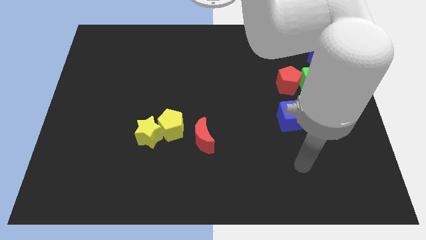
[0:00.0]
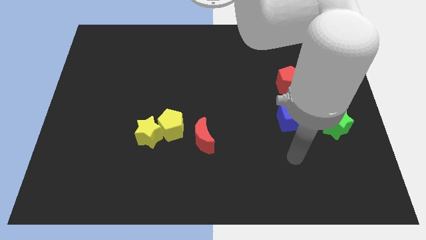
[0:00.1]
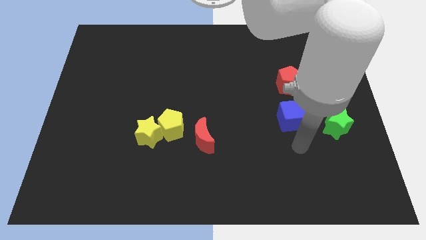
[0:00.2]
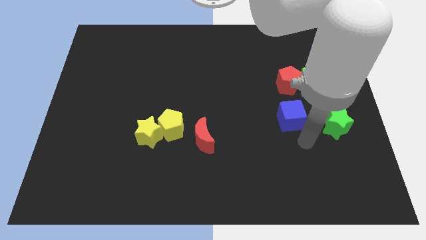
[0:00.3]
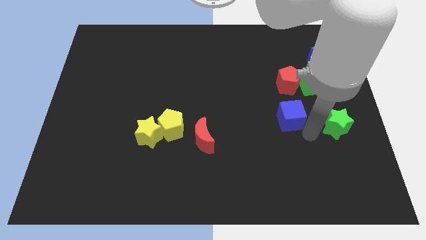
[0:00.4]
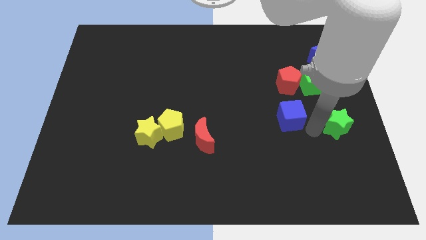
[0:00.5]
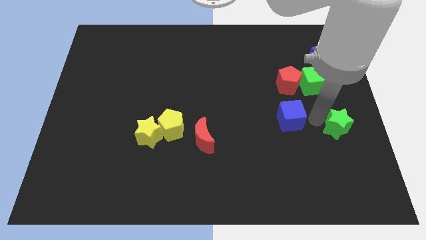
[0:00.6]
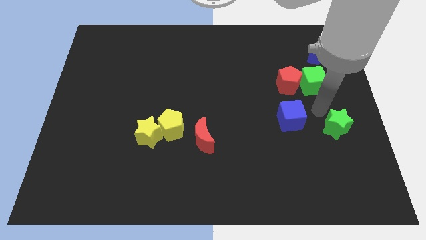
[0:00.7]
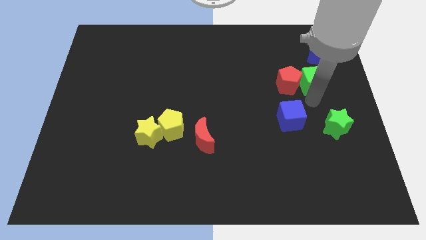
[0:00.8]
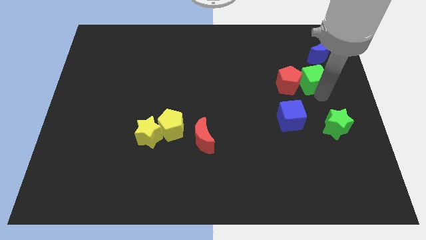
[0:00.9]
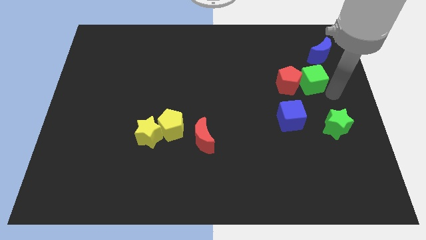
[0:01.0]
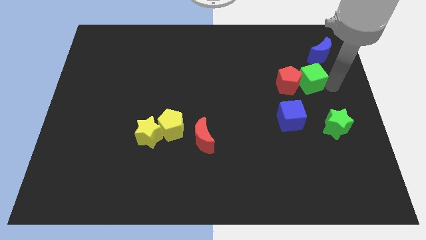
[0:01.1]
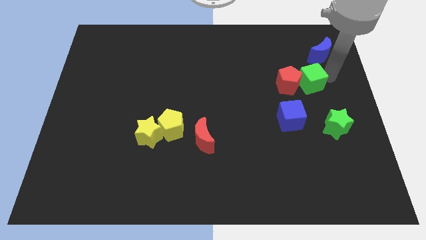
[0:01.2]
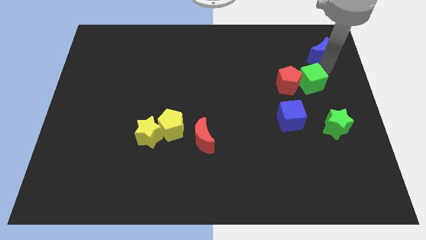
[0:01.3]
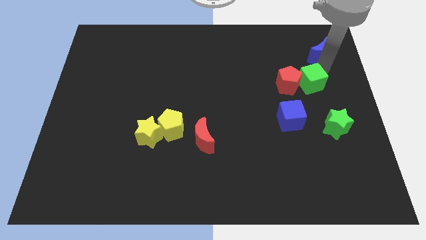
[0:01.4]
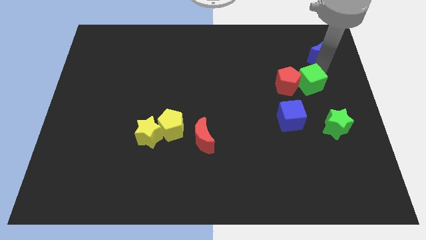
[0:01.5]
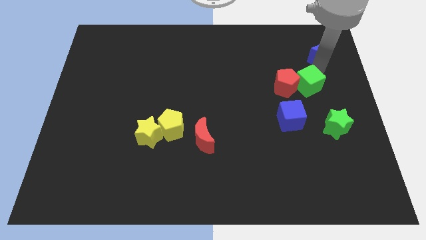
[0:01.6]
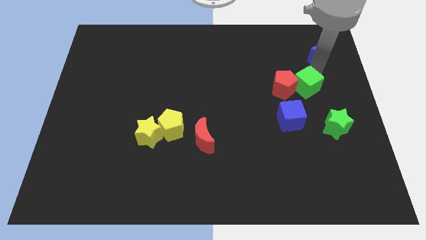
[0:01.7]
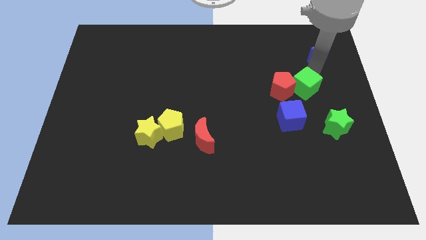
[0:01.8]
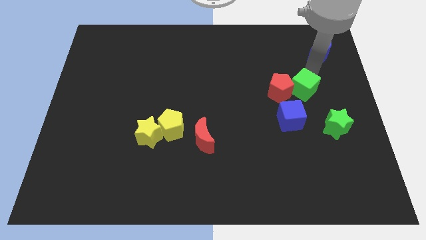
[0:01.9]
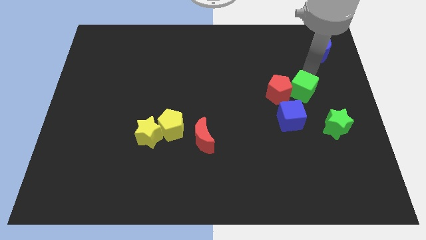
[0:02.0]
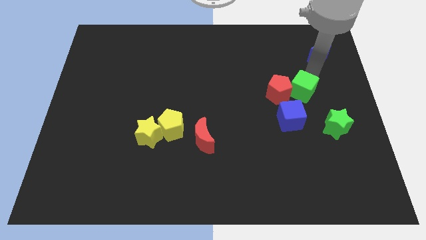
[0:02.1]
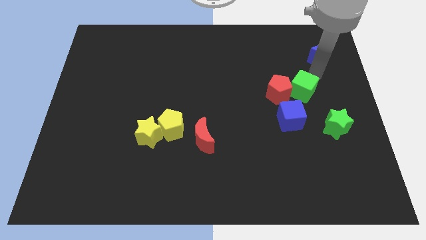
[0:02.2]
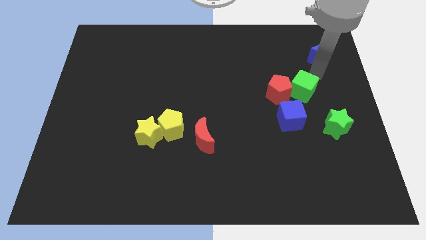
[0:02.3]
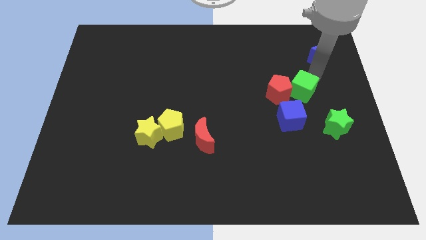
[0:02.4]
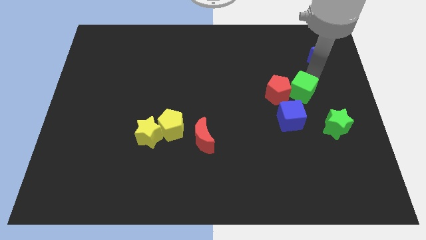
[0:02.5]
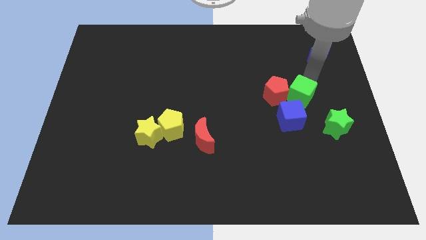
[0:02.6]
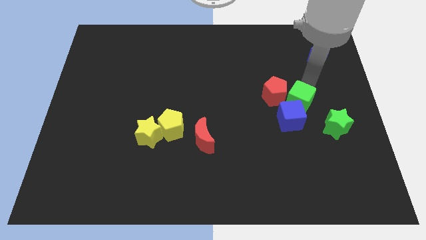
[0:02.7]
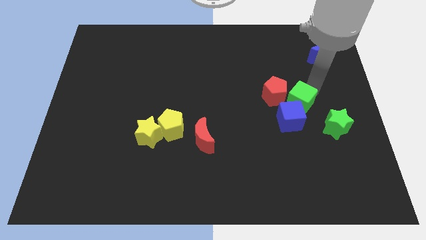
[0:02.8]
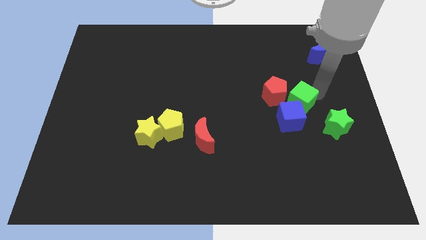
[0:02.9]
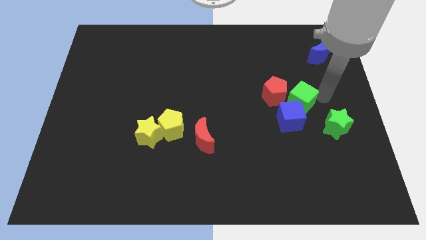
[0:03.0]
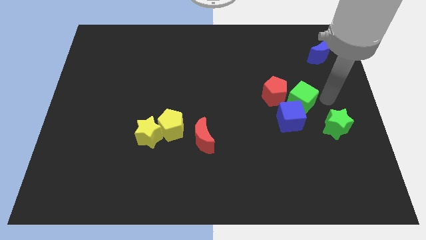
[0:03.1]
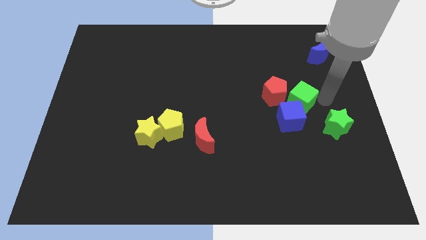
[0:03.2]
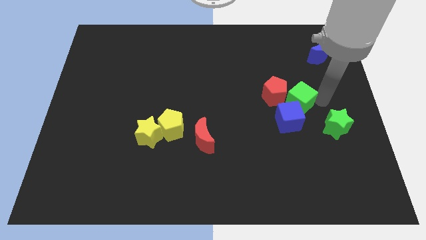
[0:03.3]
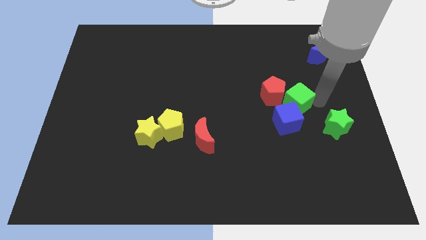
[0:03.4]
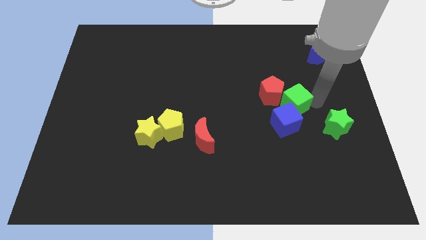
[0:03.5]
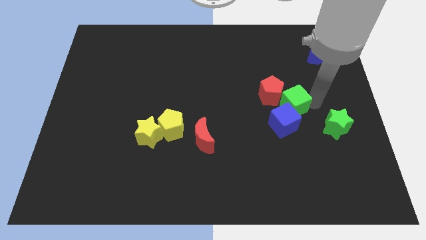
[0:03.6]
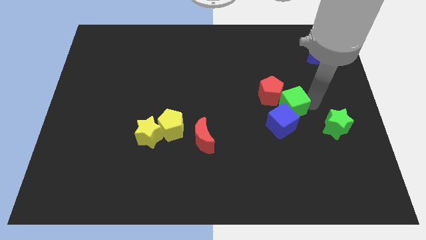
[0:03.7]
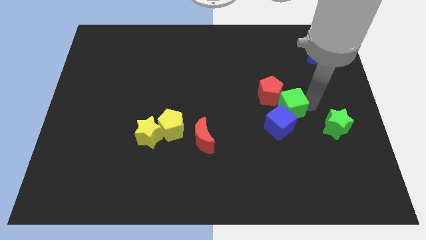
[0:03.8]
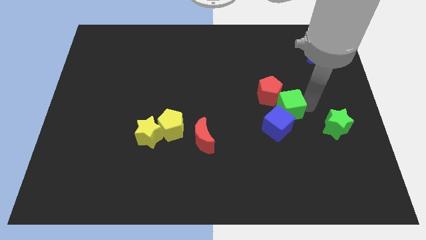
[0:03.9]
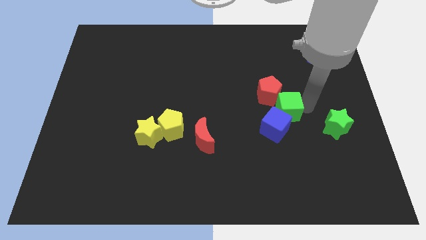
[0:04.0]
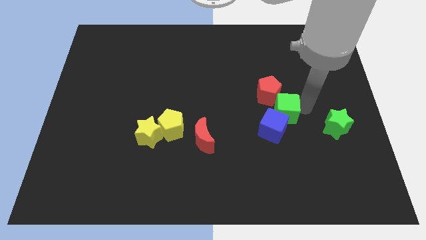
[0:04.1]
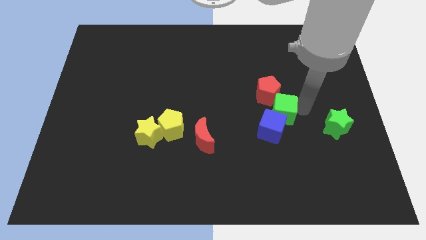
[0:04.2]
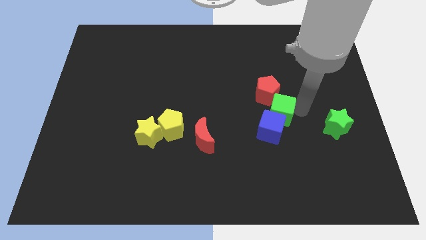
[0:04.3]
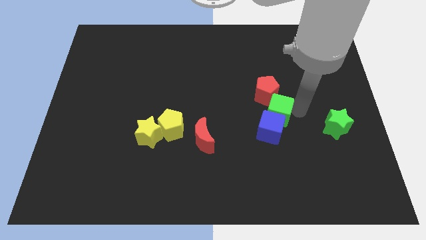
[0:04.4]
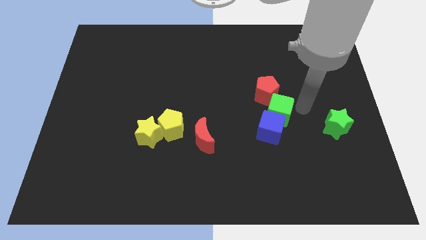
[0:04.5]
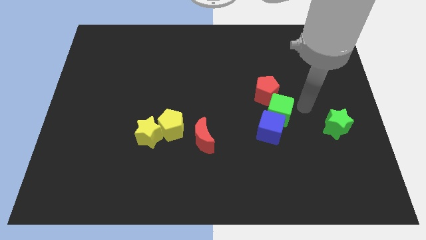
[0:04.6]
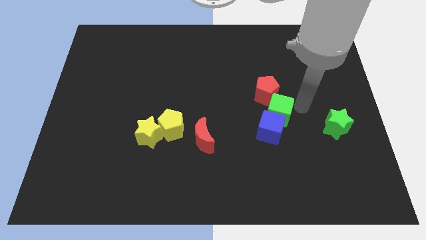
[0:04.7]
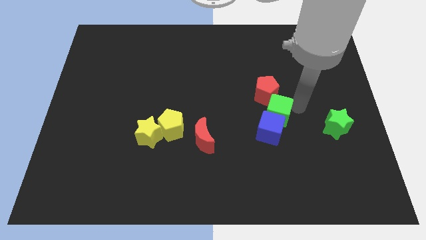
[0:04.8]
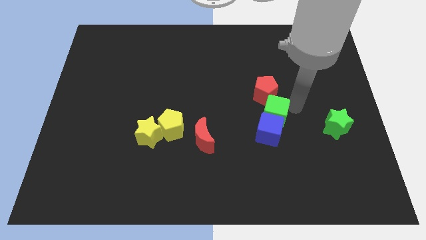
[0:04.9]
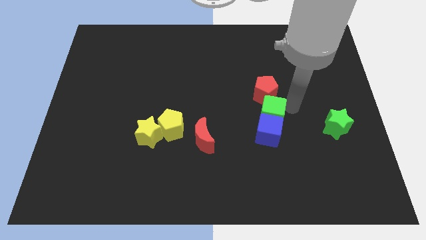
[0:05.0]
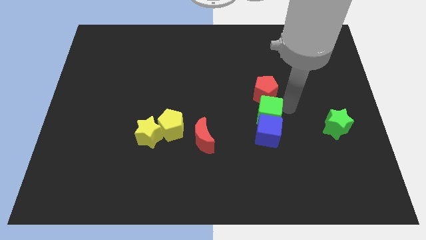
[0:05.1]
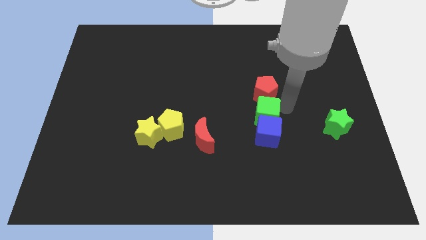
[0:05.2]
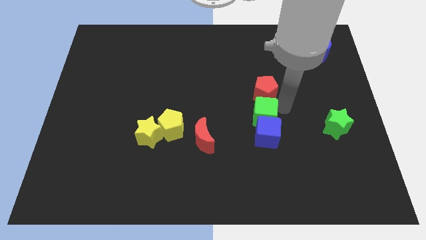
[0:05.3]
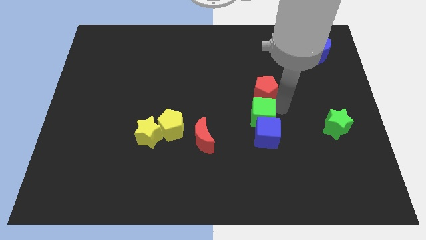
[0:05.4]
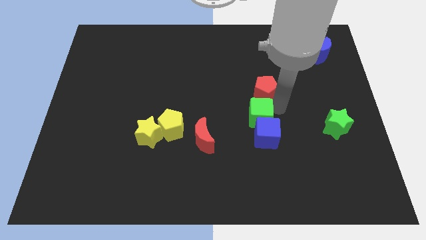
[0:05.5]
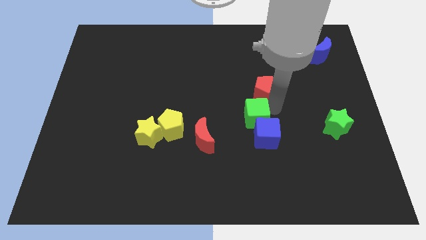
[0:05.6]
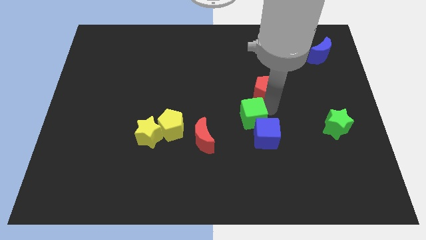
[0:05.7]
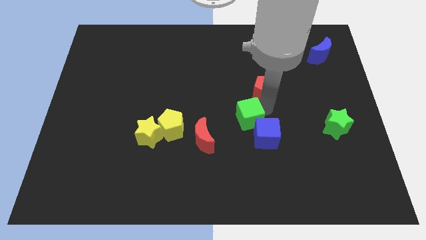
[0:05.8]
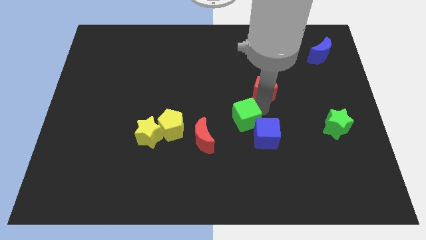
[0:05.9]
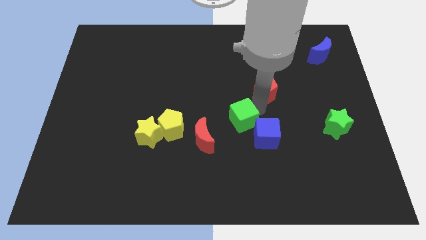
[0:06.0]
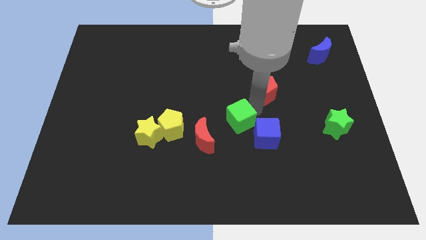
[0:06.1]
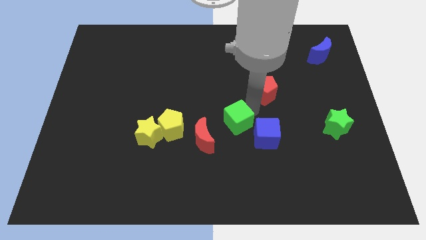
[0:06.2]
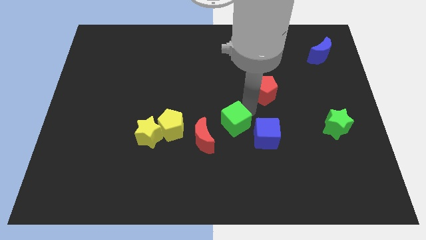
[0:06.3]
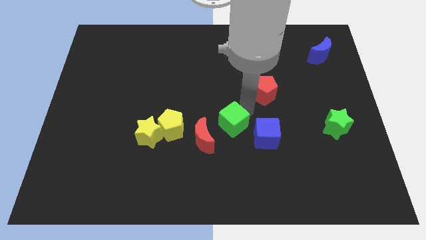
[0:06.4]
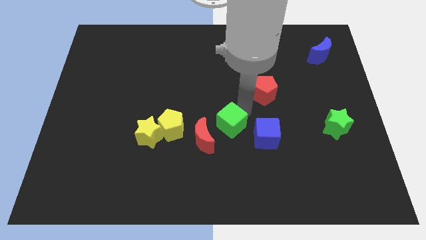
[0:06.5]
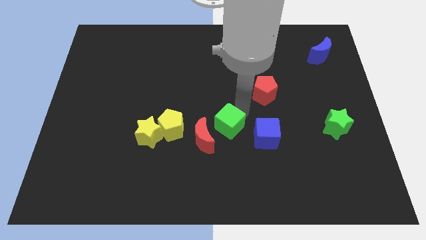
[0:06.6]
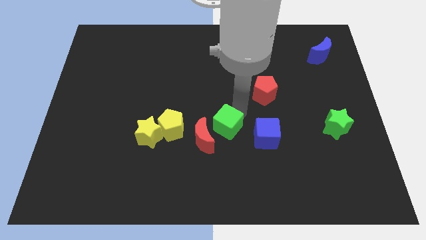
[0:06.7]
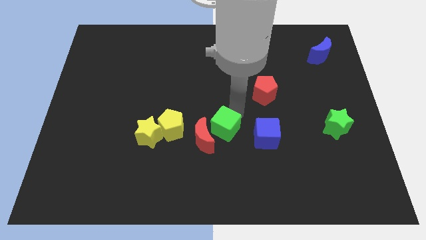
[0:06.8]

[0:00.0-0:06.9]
move the green cube next to the red moon

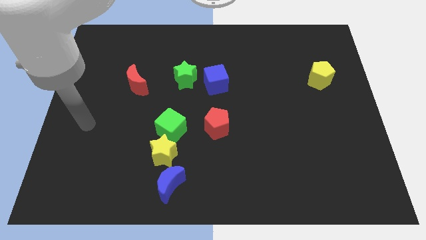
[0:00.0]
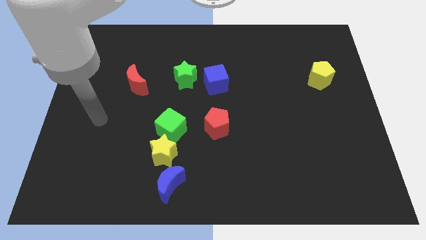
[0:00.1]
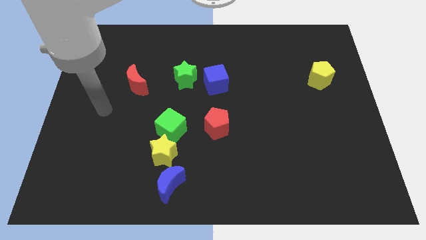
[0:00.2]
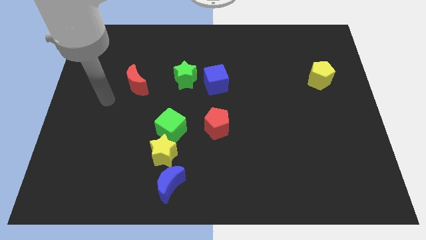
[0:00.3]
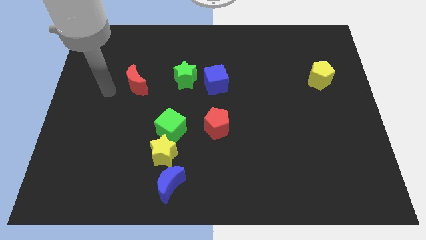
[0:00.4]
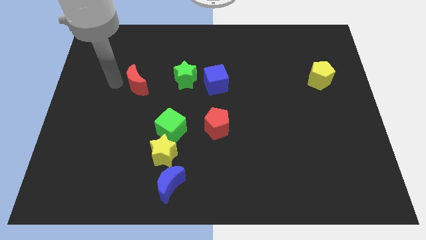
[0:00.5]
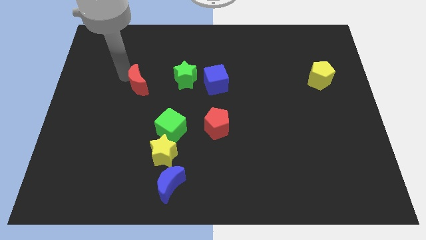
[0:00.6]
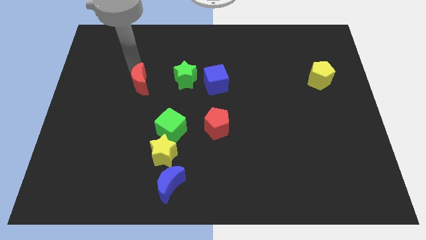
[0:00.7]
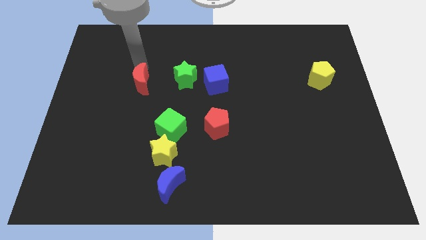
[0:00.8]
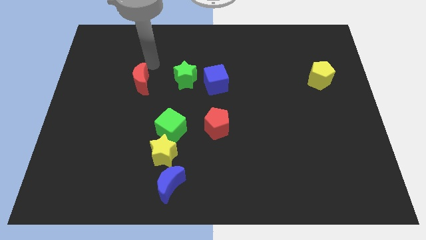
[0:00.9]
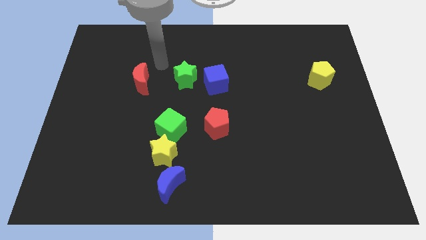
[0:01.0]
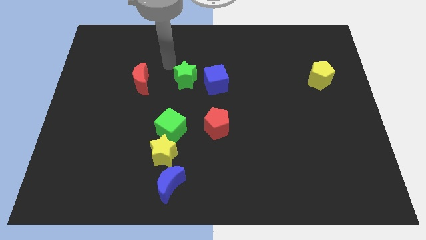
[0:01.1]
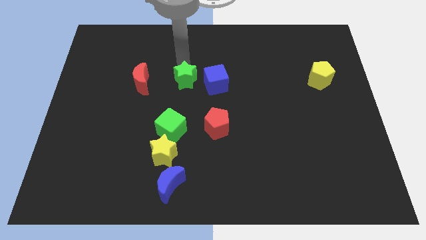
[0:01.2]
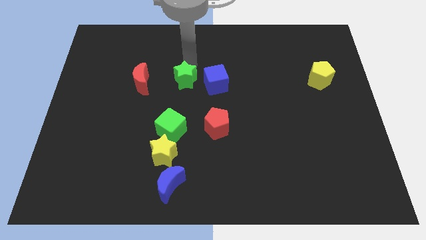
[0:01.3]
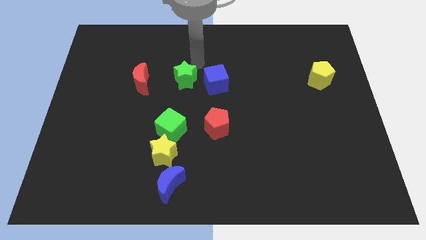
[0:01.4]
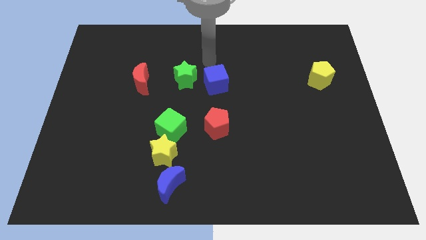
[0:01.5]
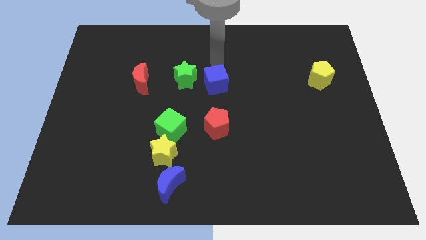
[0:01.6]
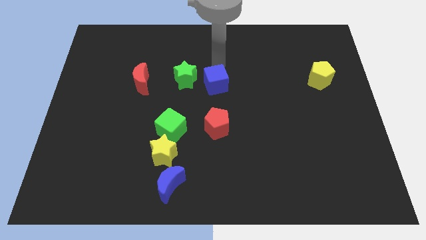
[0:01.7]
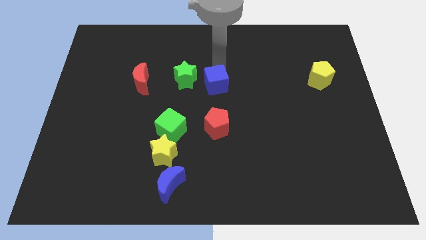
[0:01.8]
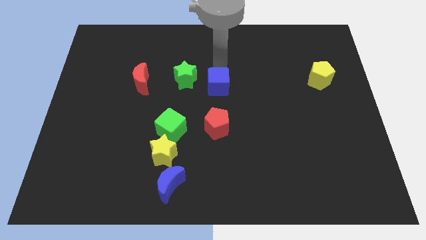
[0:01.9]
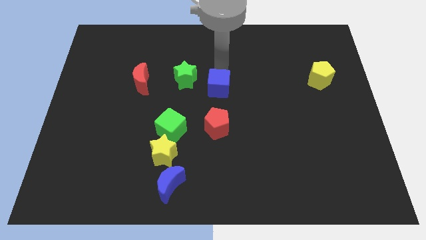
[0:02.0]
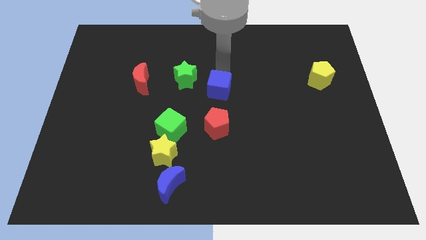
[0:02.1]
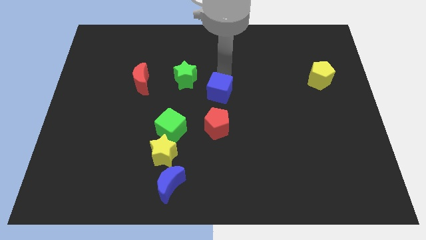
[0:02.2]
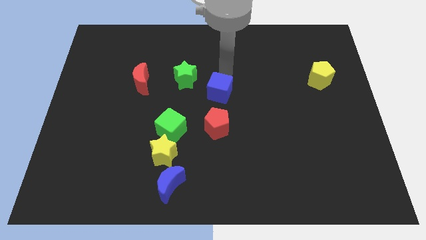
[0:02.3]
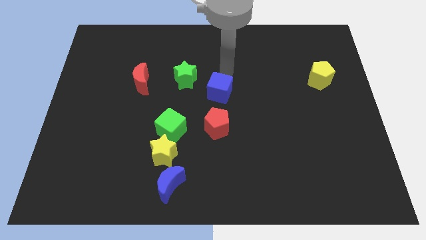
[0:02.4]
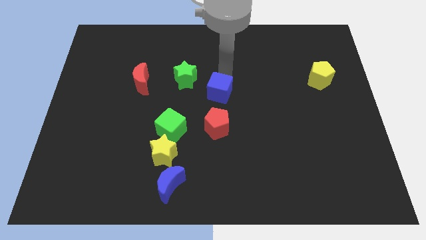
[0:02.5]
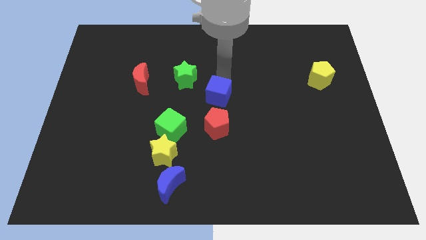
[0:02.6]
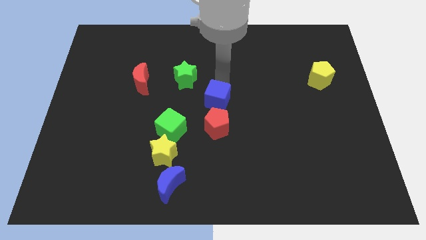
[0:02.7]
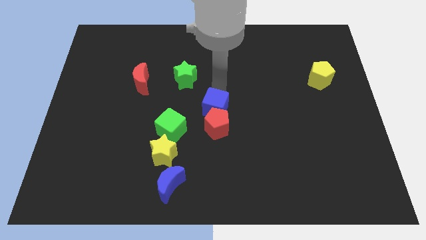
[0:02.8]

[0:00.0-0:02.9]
slide the blue cube to the red pentagon
